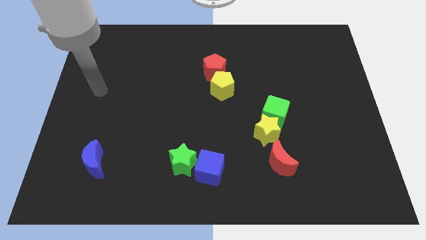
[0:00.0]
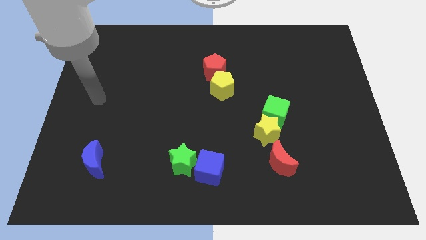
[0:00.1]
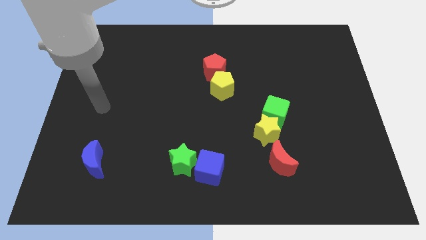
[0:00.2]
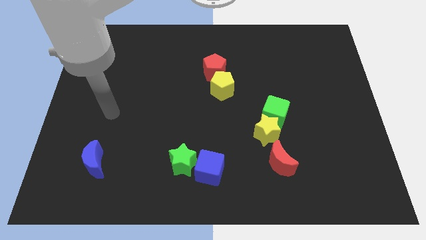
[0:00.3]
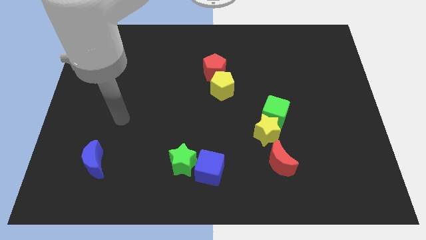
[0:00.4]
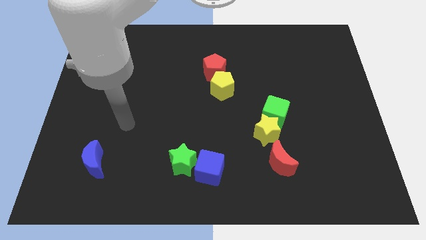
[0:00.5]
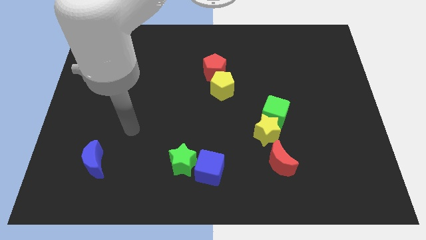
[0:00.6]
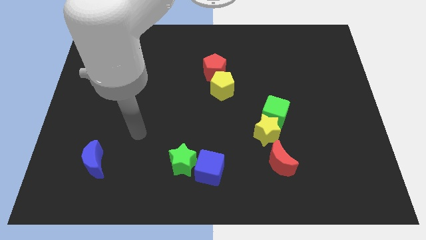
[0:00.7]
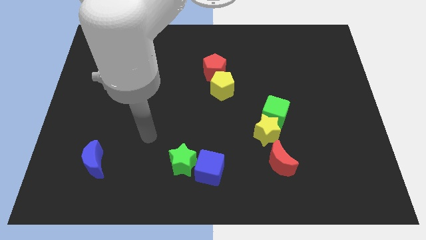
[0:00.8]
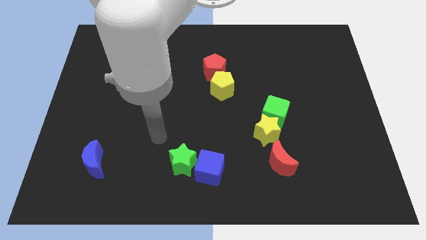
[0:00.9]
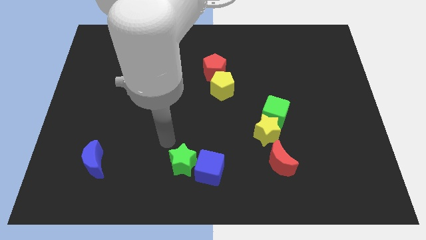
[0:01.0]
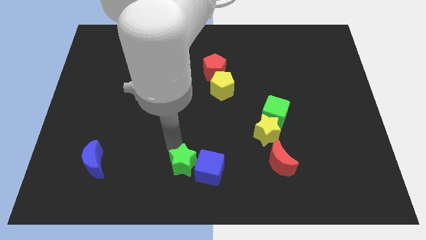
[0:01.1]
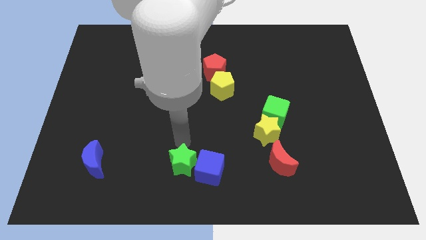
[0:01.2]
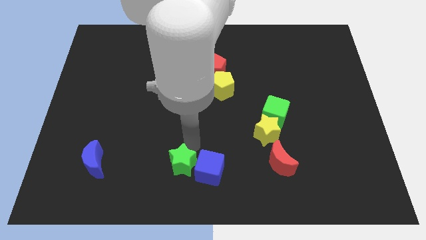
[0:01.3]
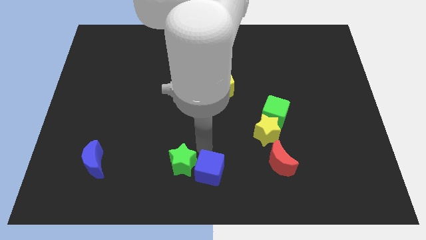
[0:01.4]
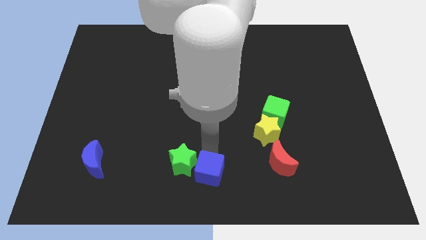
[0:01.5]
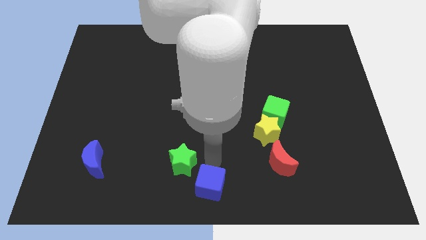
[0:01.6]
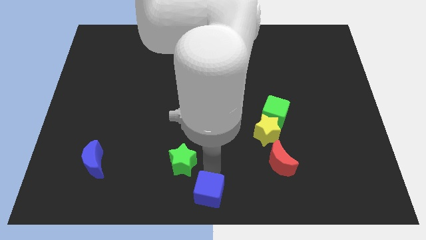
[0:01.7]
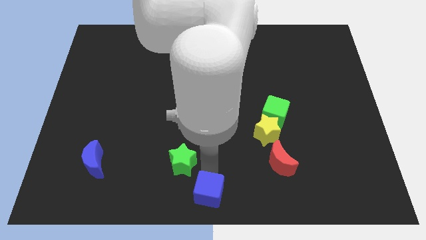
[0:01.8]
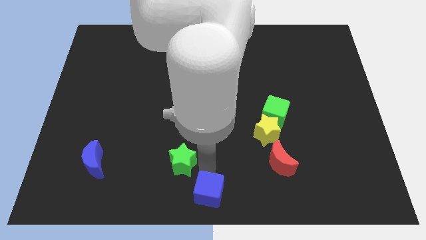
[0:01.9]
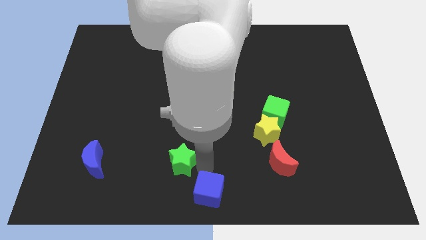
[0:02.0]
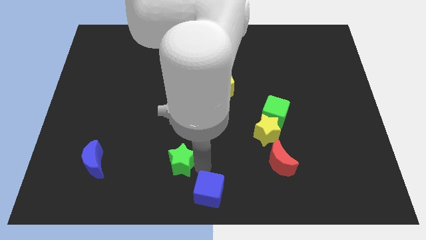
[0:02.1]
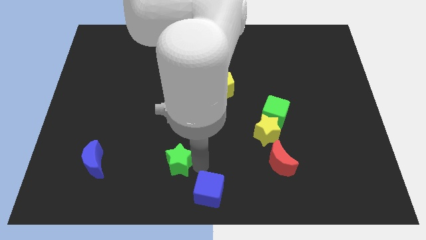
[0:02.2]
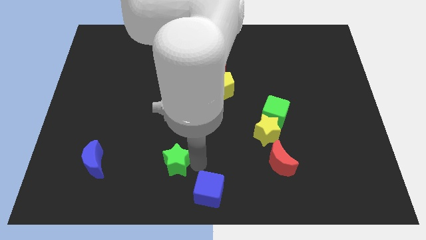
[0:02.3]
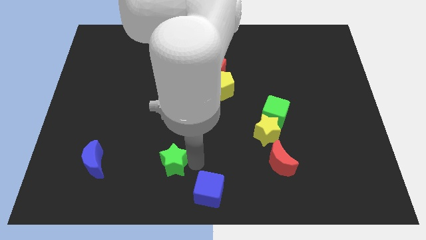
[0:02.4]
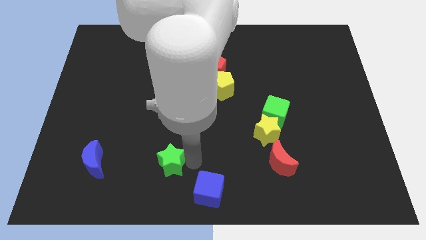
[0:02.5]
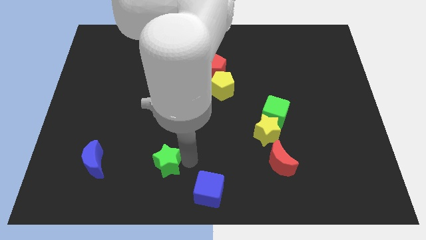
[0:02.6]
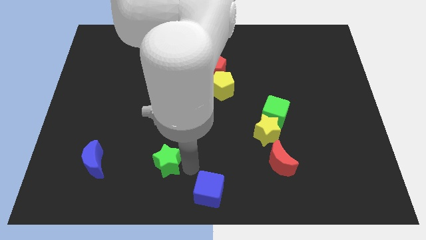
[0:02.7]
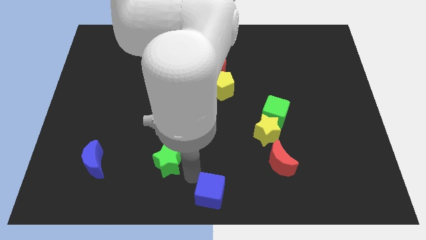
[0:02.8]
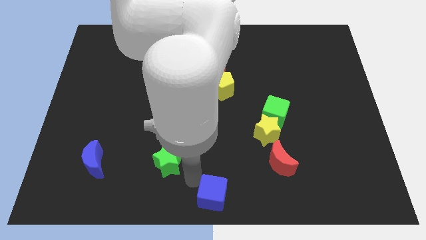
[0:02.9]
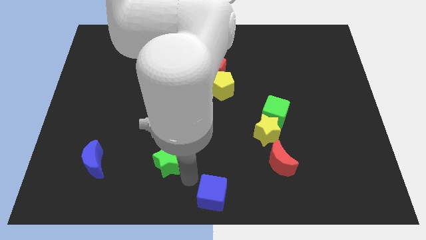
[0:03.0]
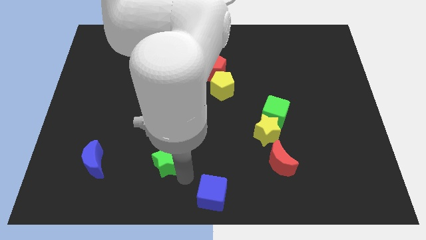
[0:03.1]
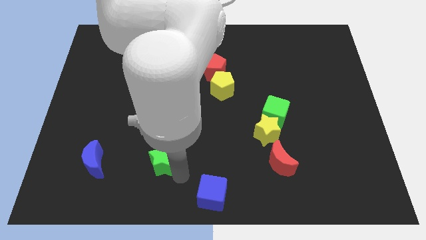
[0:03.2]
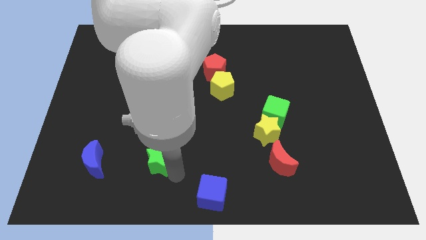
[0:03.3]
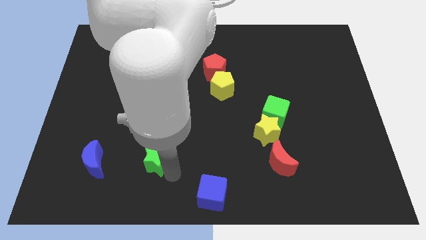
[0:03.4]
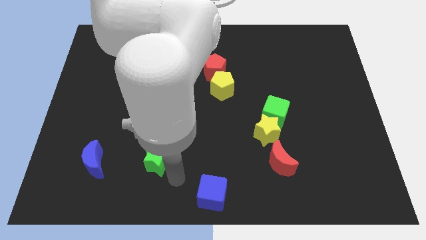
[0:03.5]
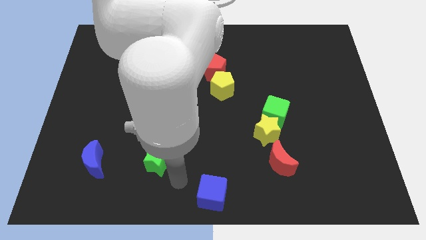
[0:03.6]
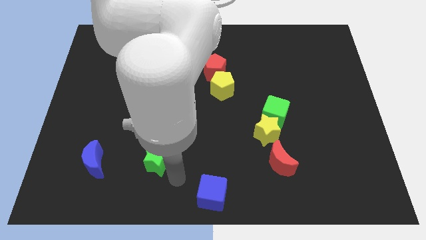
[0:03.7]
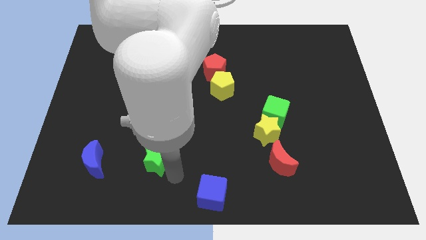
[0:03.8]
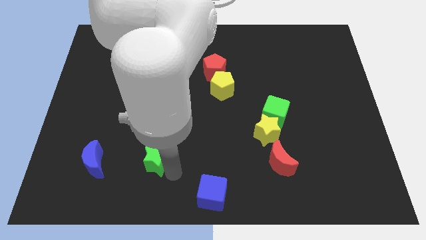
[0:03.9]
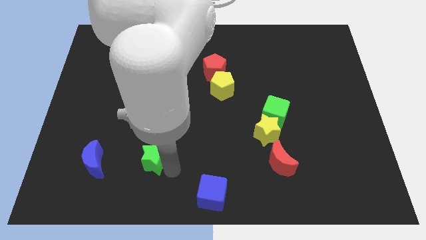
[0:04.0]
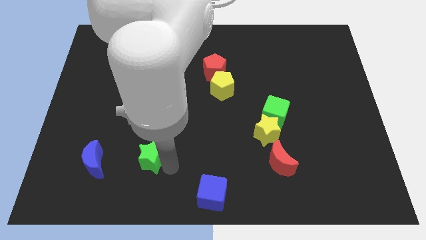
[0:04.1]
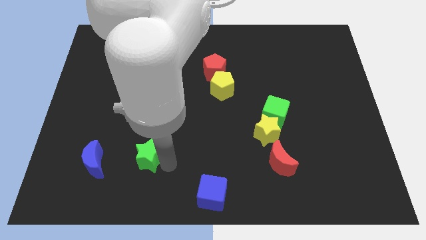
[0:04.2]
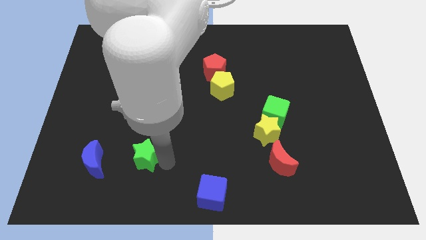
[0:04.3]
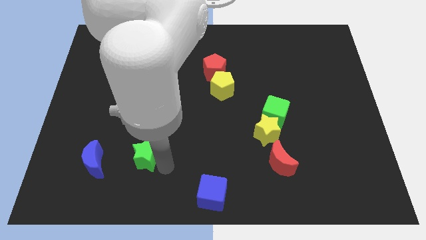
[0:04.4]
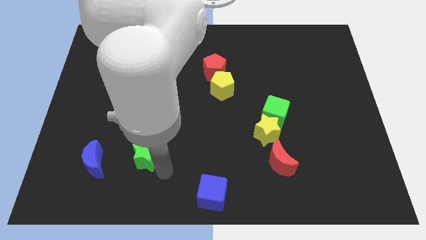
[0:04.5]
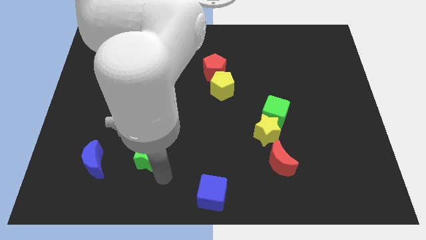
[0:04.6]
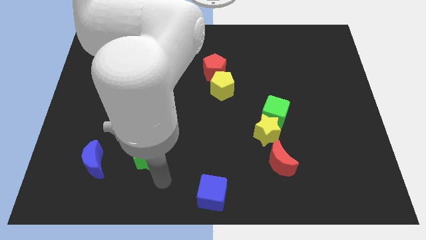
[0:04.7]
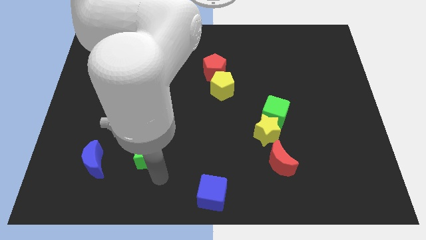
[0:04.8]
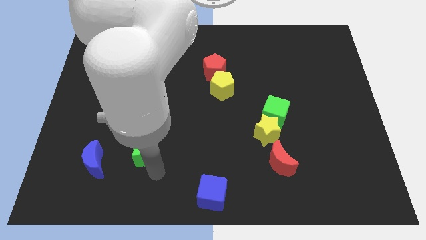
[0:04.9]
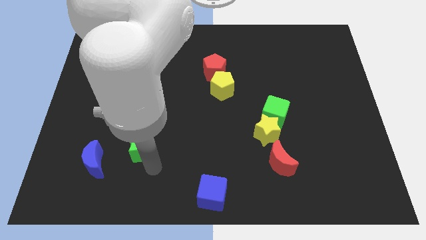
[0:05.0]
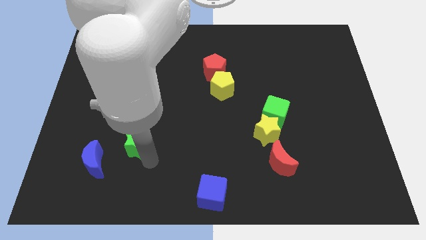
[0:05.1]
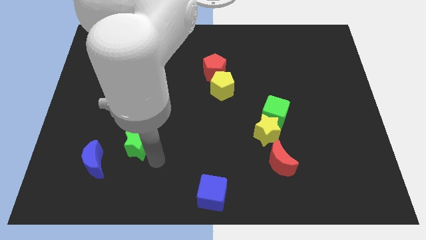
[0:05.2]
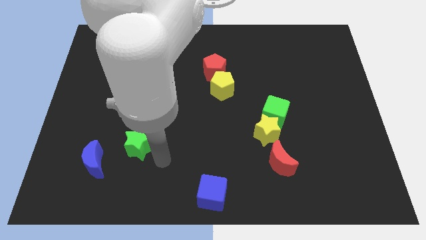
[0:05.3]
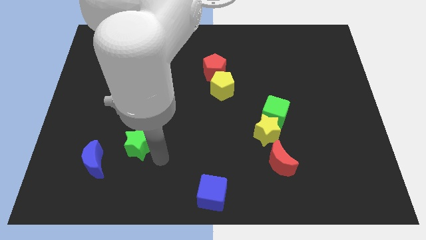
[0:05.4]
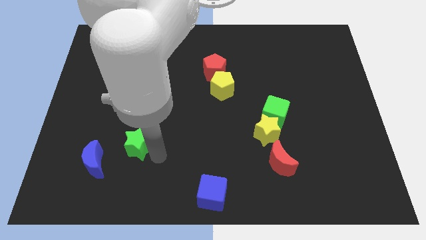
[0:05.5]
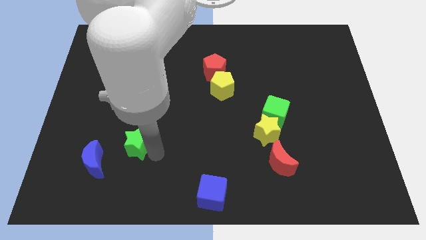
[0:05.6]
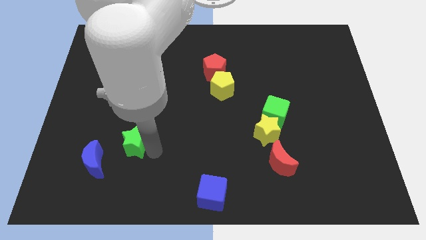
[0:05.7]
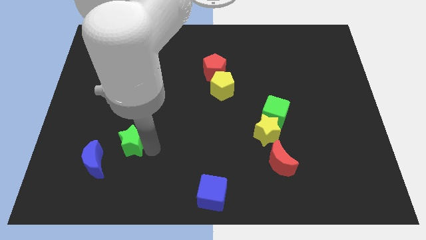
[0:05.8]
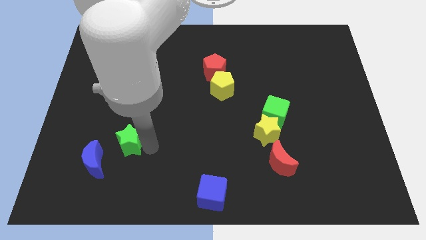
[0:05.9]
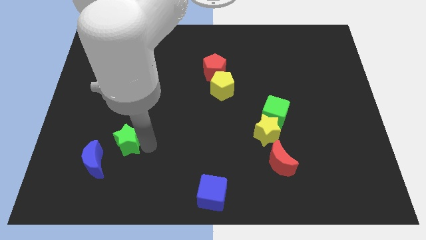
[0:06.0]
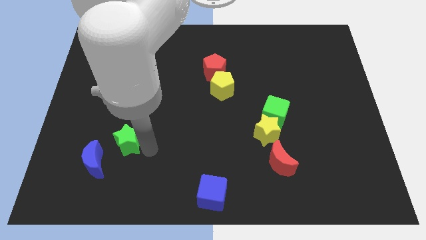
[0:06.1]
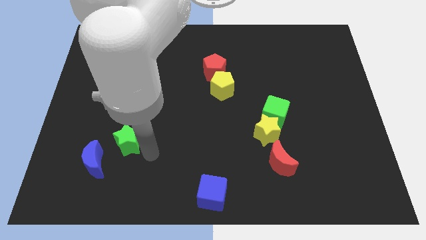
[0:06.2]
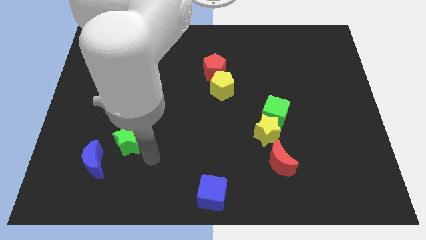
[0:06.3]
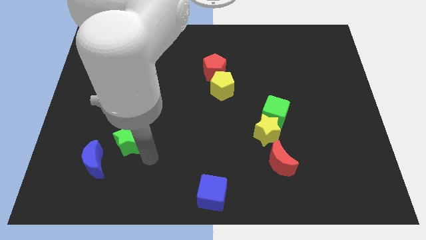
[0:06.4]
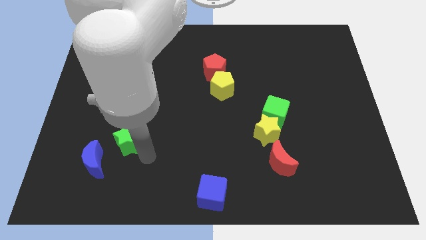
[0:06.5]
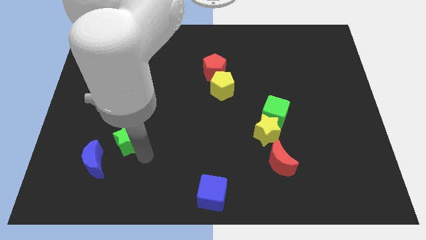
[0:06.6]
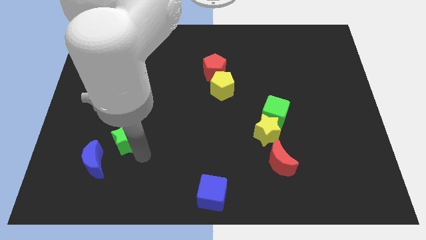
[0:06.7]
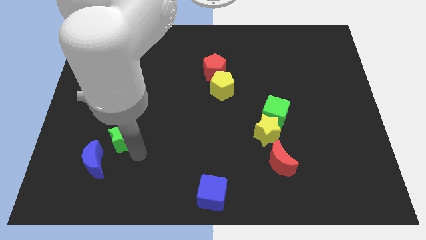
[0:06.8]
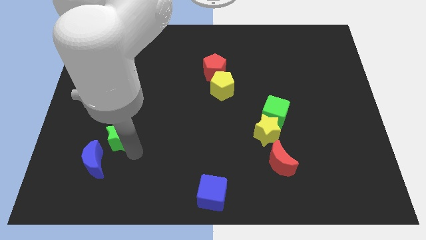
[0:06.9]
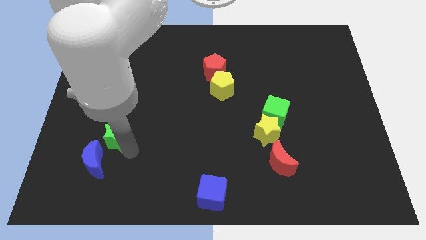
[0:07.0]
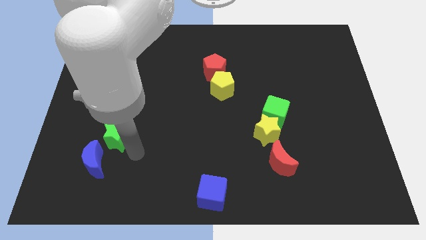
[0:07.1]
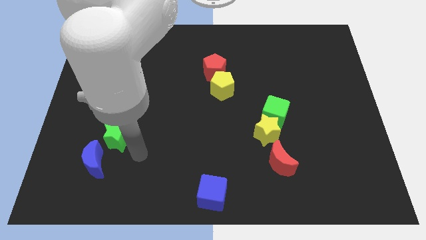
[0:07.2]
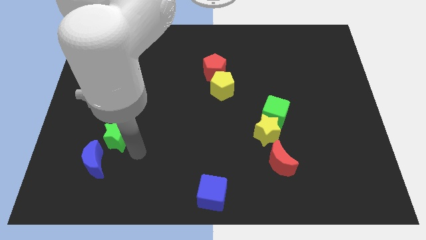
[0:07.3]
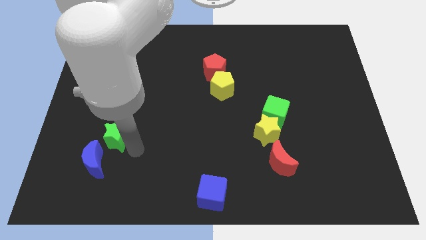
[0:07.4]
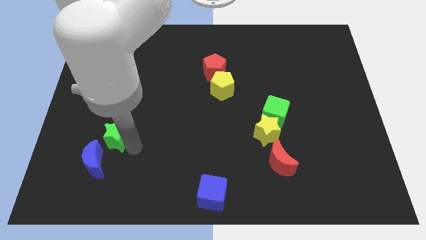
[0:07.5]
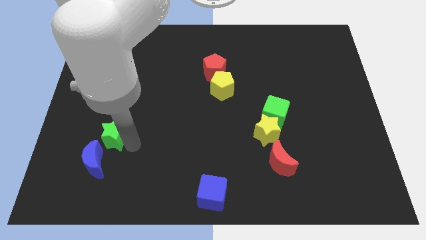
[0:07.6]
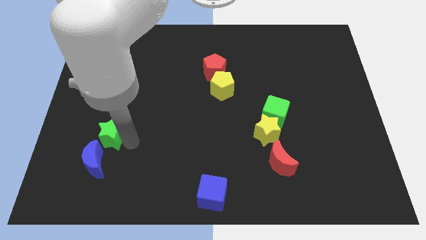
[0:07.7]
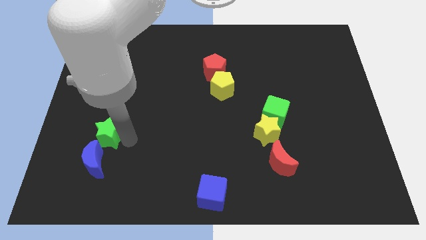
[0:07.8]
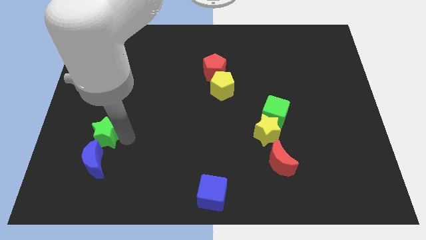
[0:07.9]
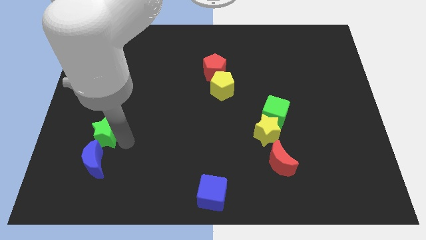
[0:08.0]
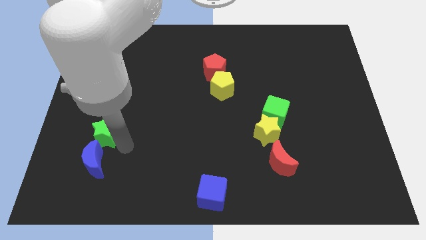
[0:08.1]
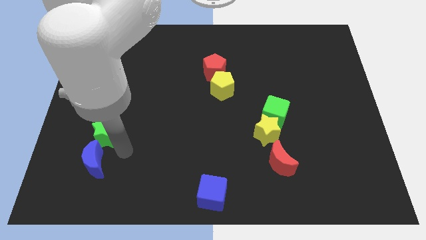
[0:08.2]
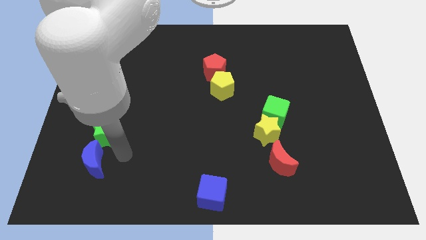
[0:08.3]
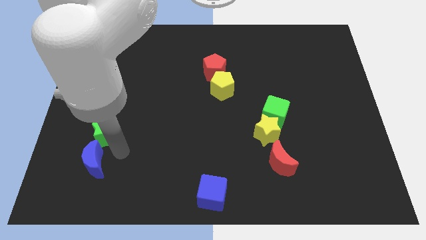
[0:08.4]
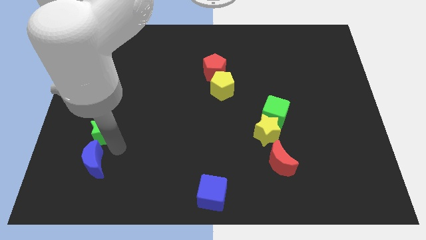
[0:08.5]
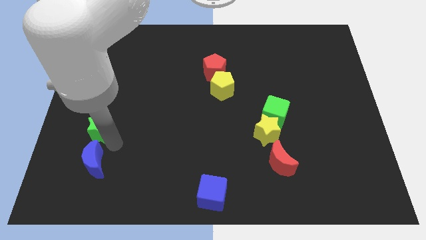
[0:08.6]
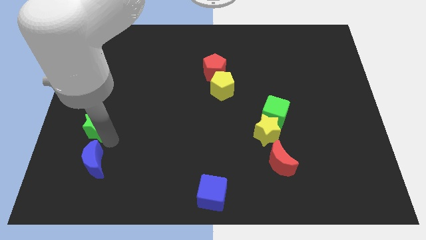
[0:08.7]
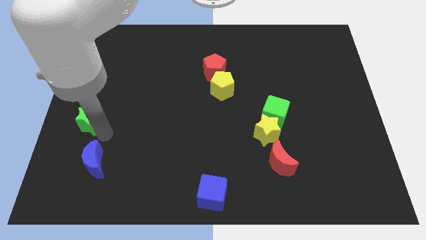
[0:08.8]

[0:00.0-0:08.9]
slide the green star to the left side
